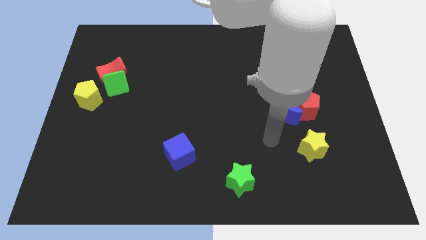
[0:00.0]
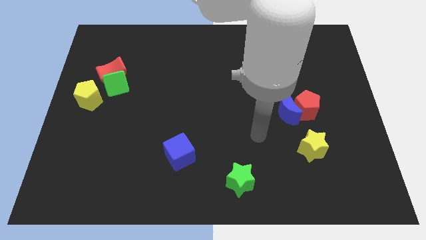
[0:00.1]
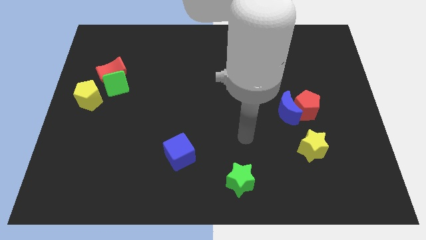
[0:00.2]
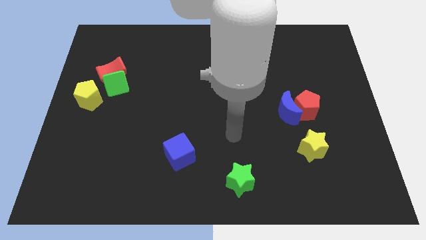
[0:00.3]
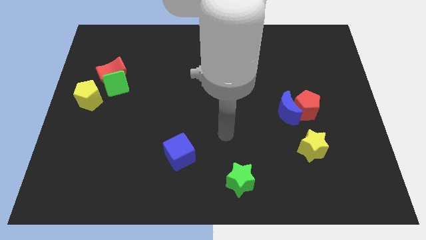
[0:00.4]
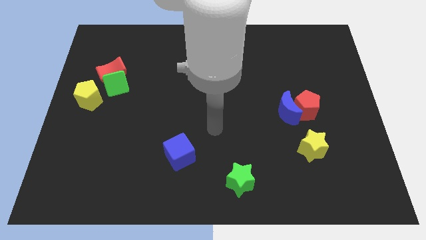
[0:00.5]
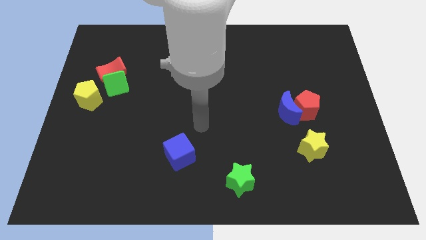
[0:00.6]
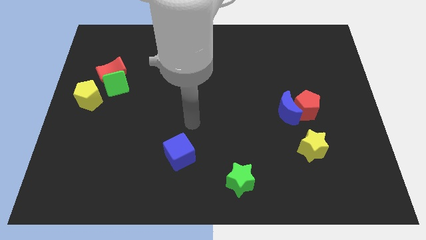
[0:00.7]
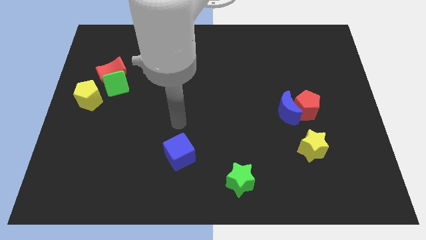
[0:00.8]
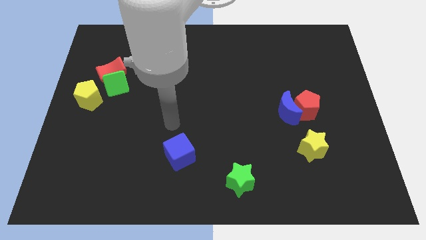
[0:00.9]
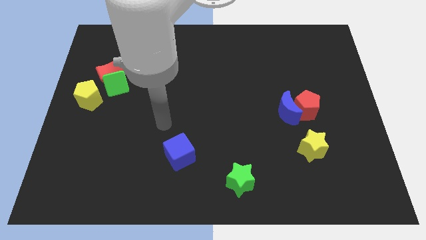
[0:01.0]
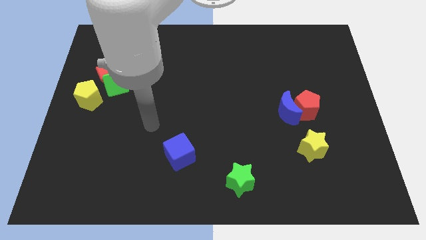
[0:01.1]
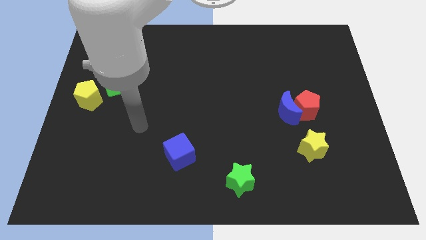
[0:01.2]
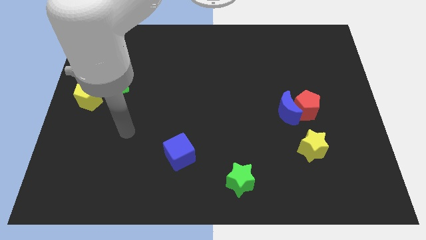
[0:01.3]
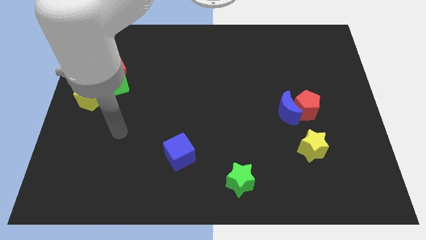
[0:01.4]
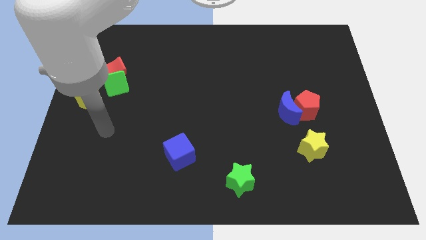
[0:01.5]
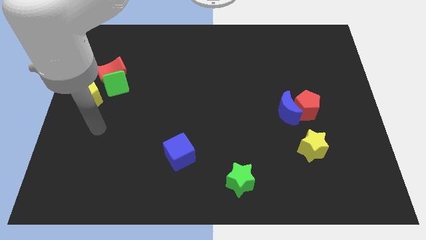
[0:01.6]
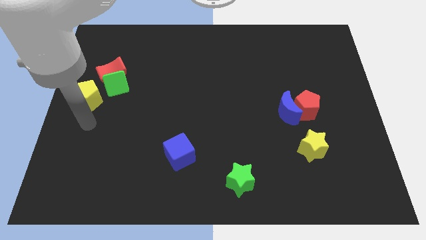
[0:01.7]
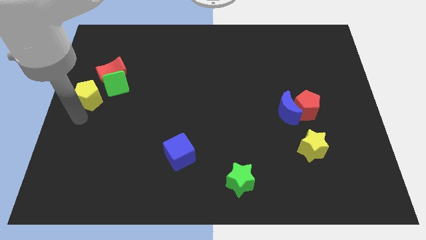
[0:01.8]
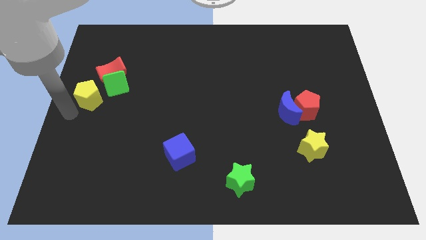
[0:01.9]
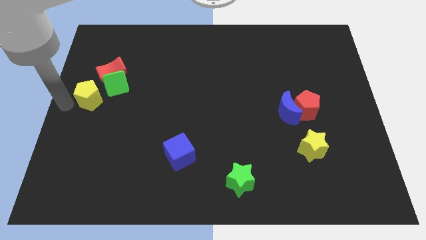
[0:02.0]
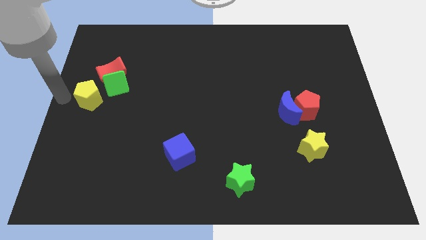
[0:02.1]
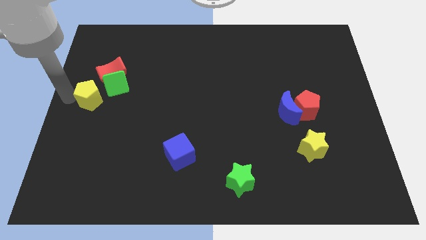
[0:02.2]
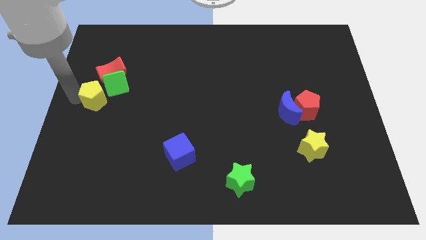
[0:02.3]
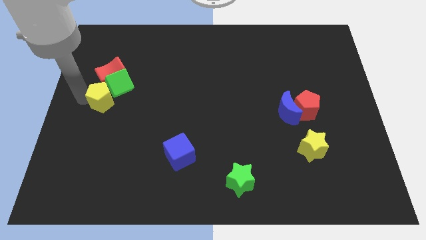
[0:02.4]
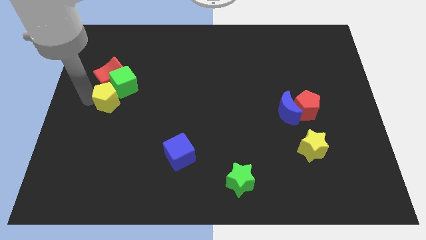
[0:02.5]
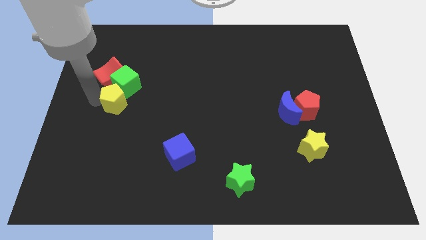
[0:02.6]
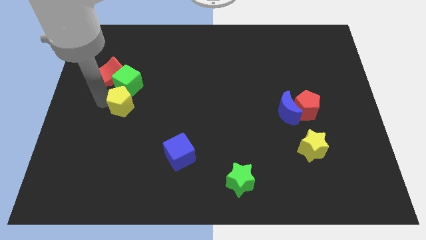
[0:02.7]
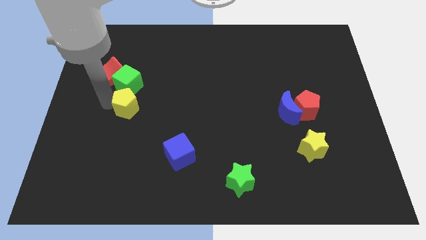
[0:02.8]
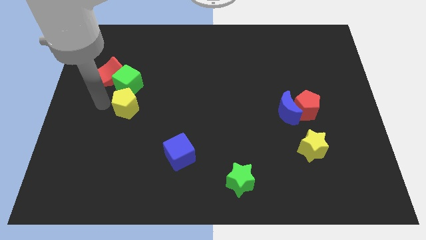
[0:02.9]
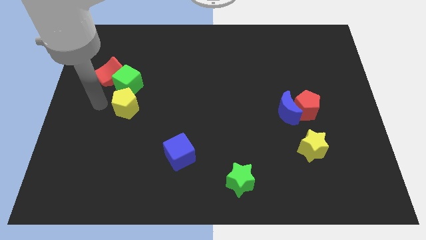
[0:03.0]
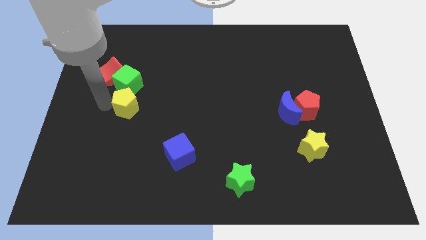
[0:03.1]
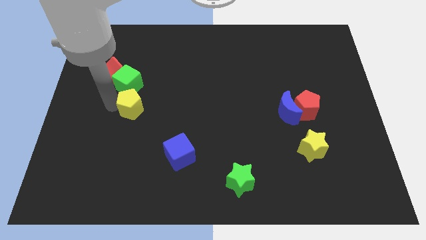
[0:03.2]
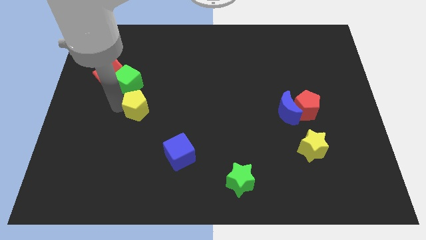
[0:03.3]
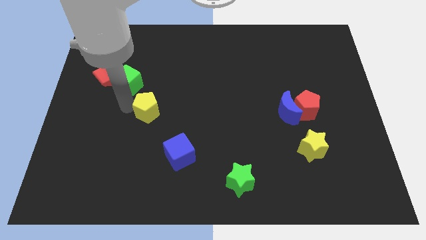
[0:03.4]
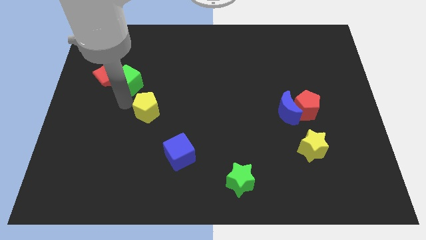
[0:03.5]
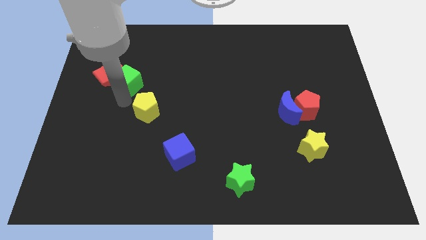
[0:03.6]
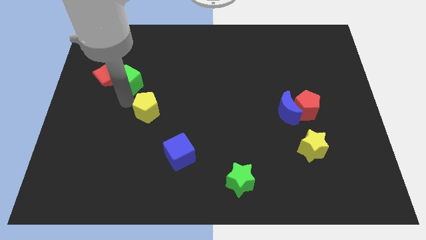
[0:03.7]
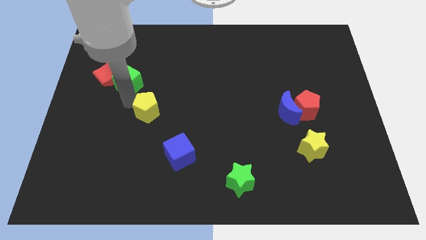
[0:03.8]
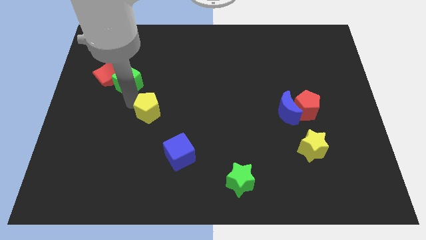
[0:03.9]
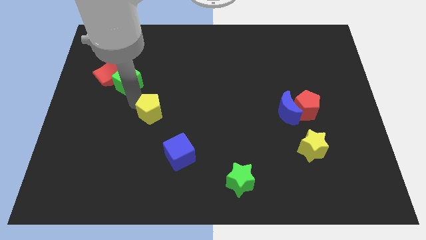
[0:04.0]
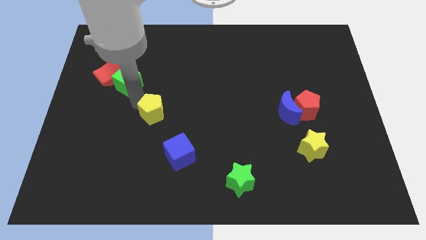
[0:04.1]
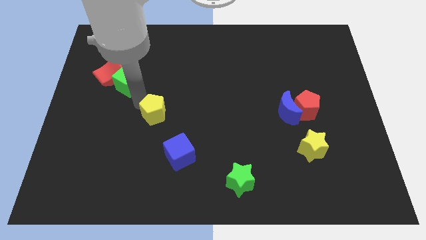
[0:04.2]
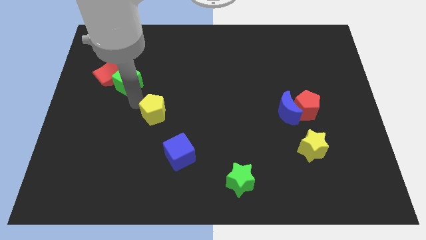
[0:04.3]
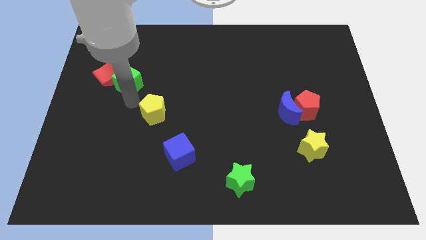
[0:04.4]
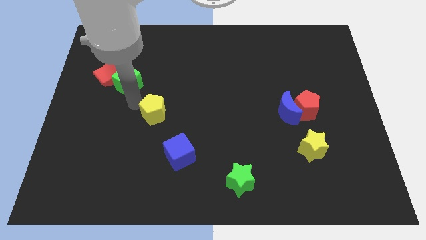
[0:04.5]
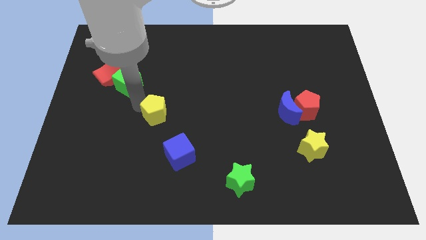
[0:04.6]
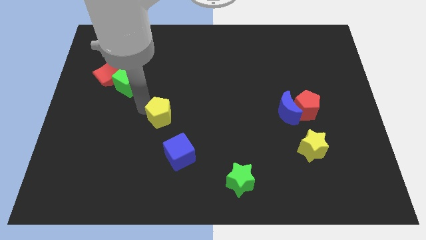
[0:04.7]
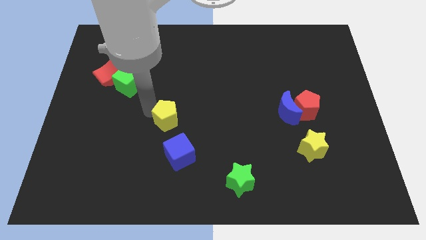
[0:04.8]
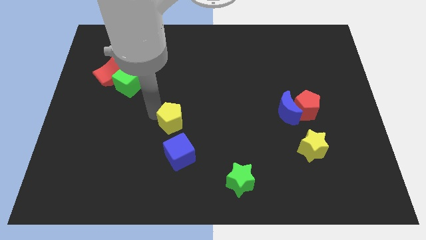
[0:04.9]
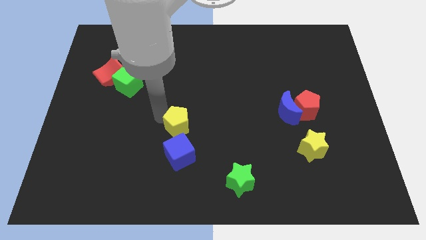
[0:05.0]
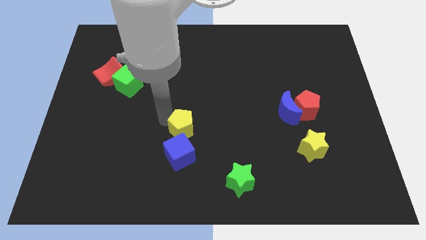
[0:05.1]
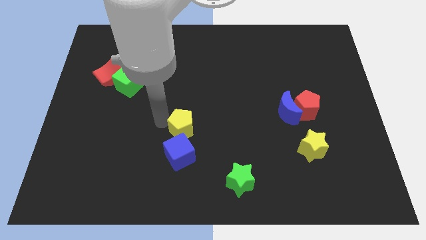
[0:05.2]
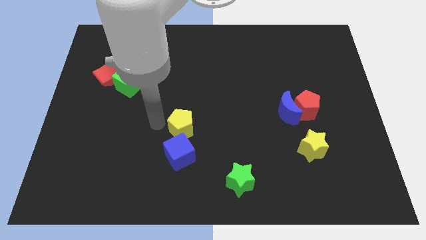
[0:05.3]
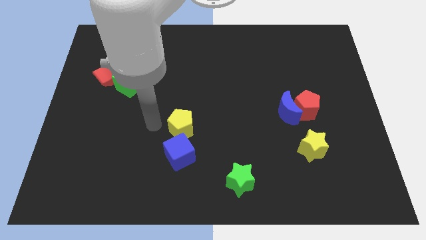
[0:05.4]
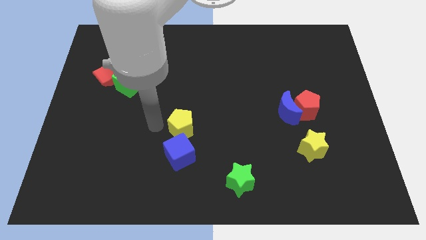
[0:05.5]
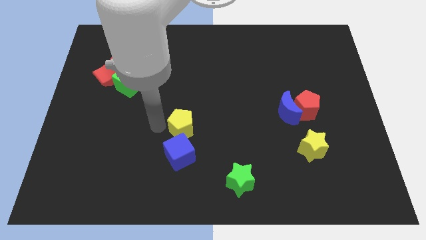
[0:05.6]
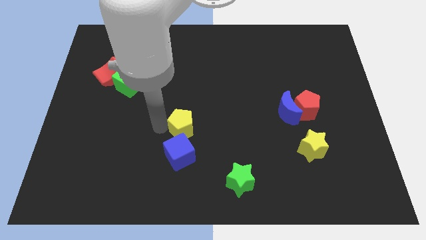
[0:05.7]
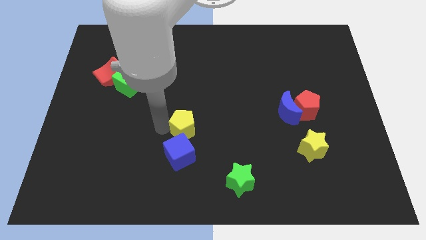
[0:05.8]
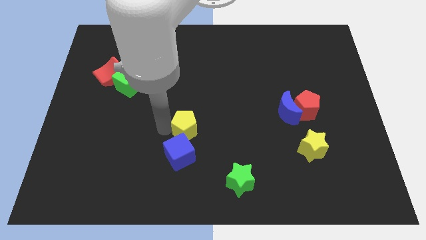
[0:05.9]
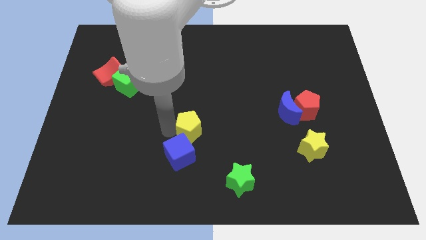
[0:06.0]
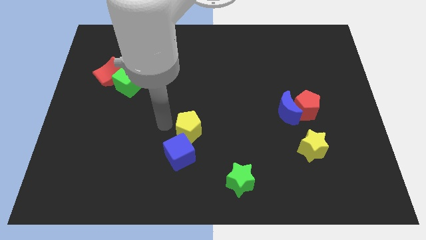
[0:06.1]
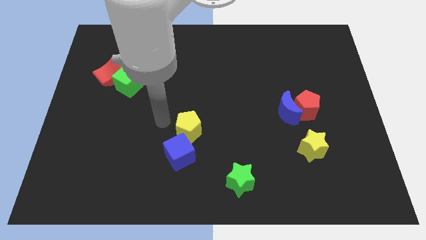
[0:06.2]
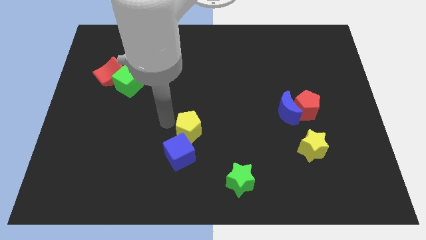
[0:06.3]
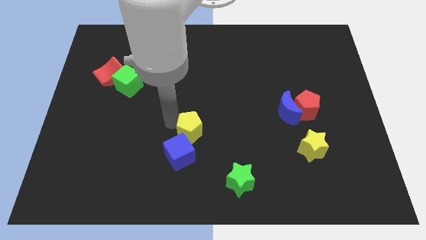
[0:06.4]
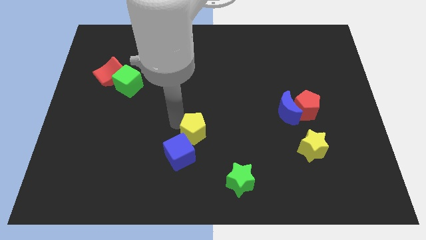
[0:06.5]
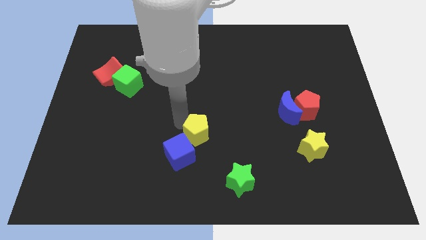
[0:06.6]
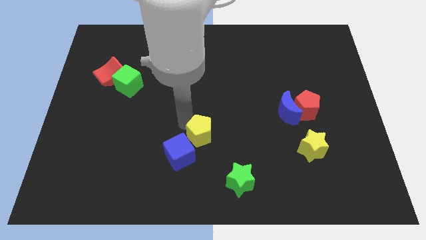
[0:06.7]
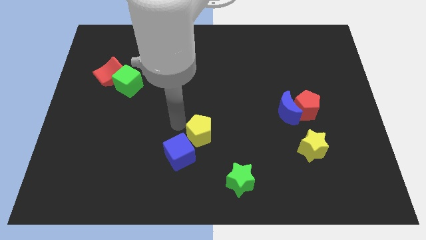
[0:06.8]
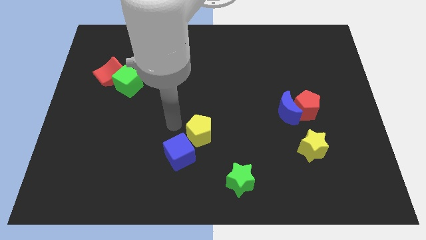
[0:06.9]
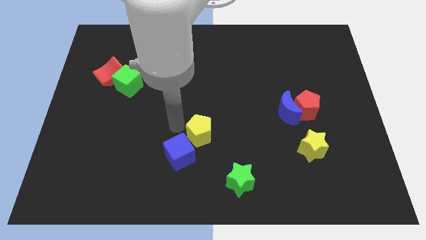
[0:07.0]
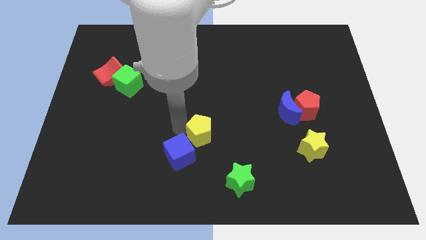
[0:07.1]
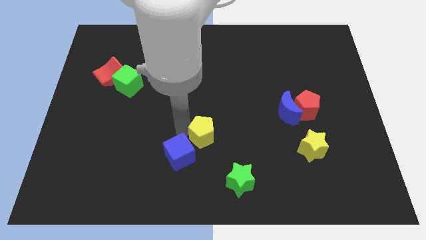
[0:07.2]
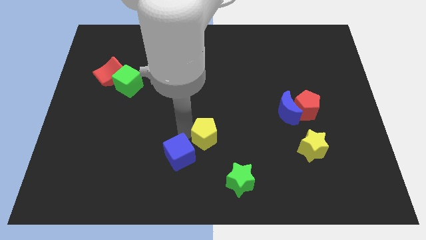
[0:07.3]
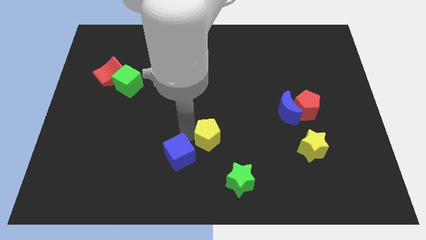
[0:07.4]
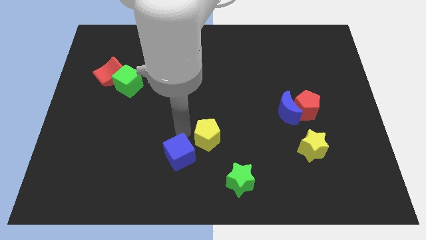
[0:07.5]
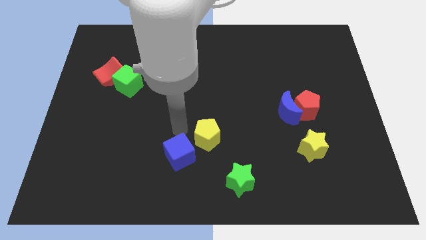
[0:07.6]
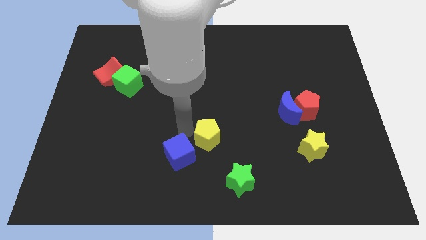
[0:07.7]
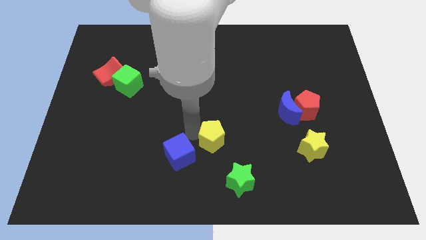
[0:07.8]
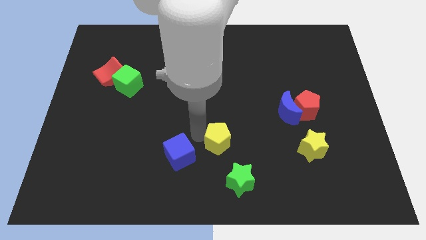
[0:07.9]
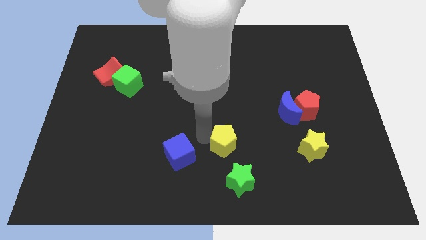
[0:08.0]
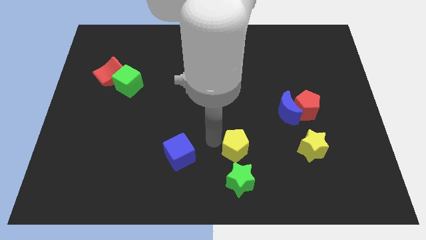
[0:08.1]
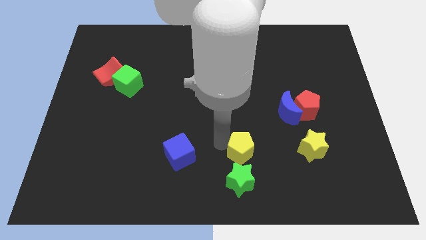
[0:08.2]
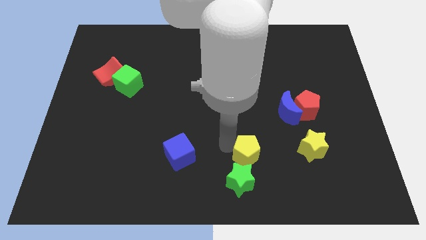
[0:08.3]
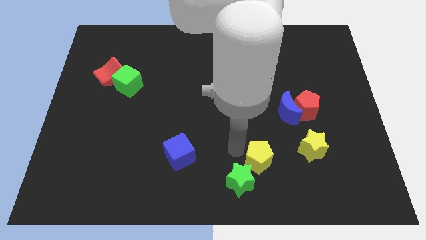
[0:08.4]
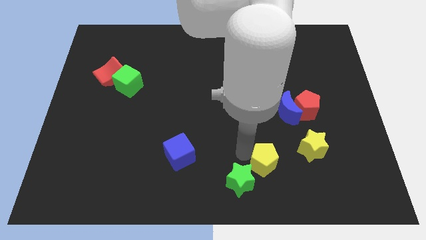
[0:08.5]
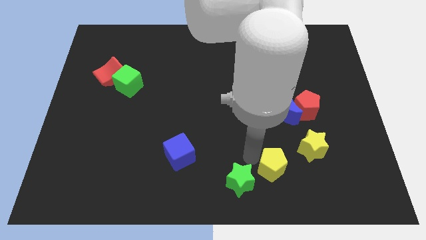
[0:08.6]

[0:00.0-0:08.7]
put the yellow pentagon diagonally down and to the left of the yellow star
